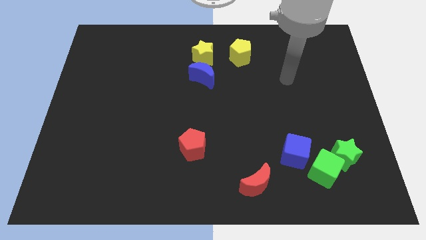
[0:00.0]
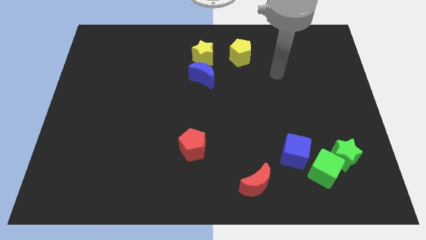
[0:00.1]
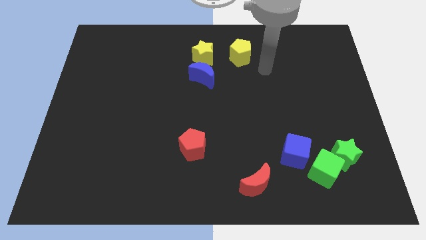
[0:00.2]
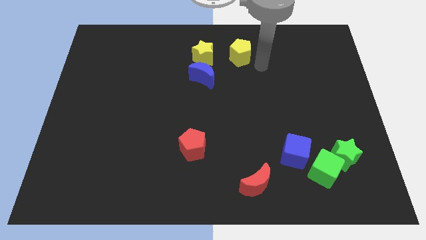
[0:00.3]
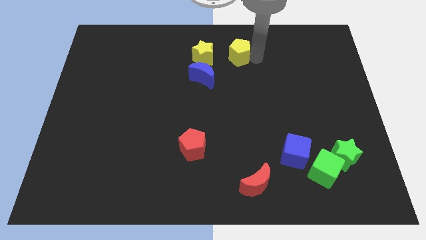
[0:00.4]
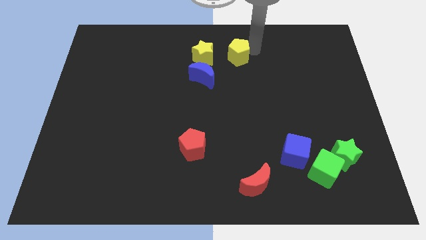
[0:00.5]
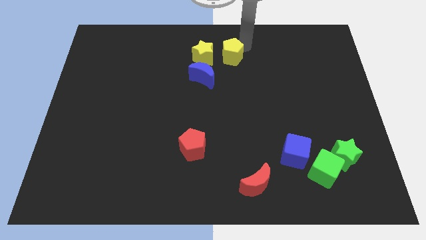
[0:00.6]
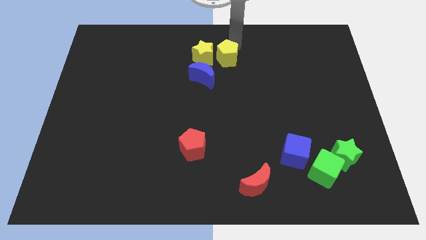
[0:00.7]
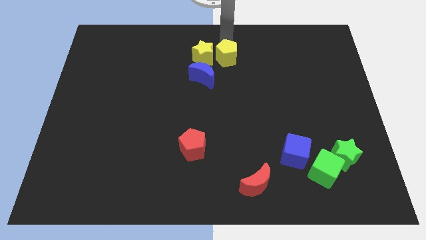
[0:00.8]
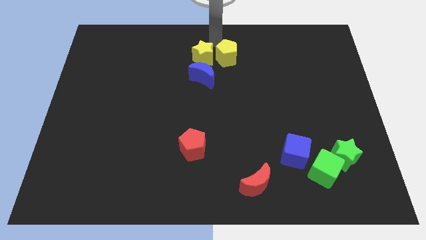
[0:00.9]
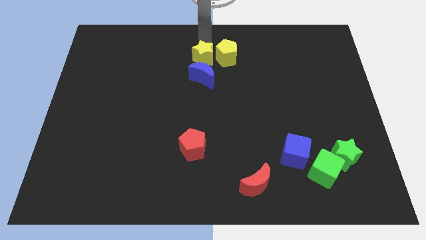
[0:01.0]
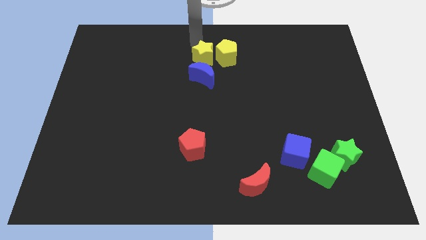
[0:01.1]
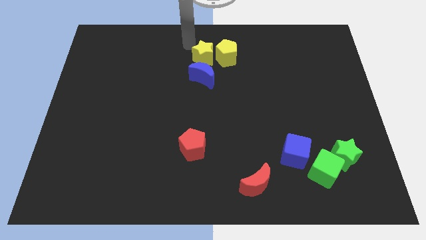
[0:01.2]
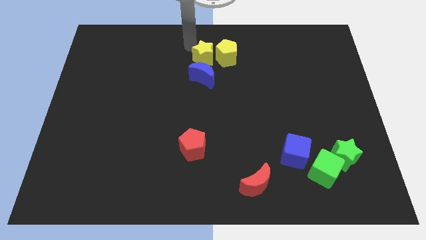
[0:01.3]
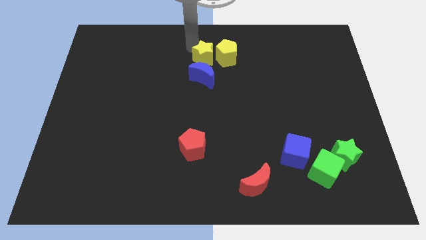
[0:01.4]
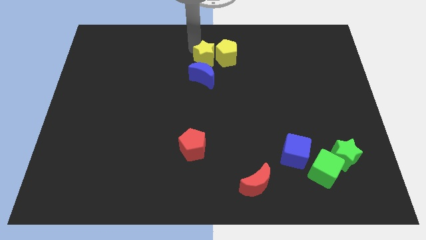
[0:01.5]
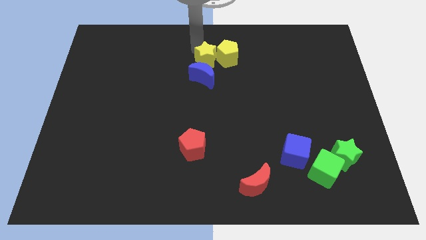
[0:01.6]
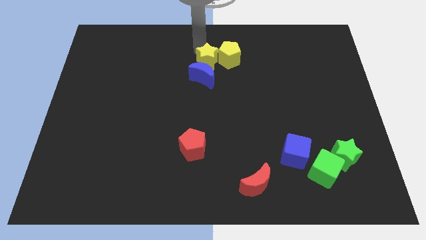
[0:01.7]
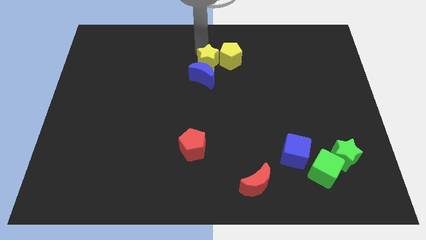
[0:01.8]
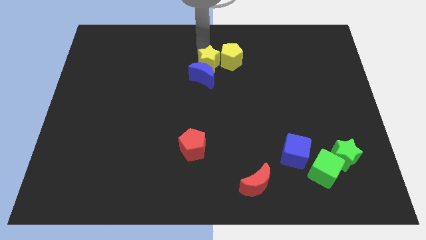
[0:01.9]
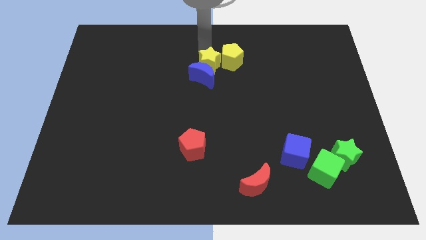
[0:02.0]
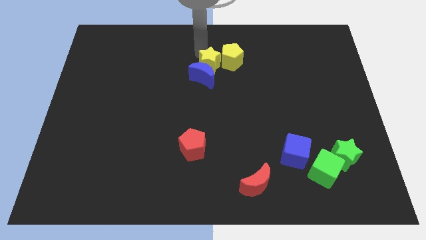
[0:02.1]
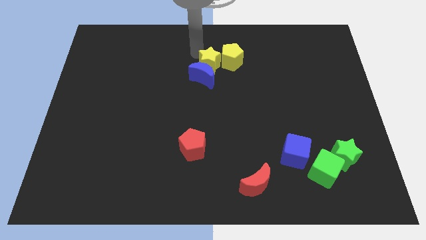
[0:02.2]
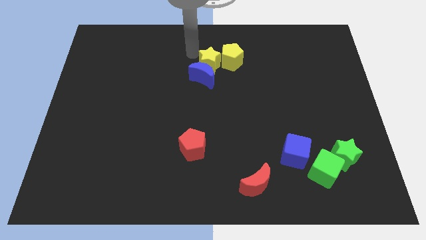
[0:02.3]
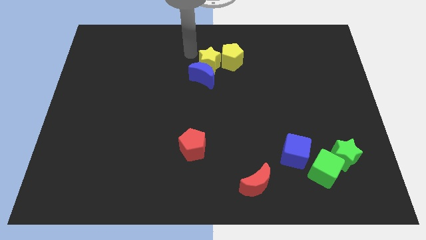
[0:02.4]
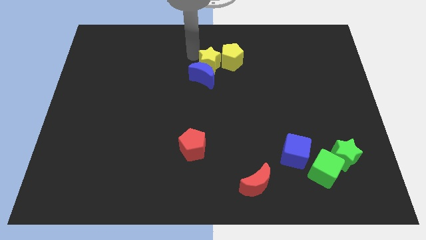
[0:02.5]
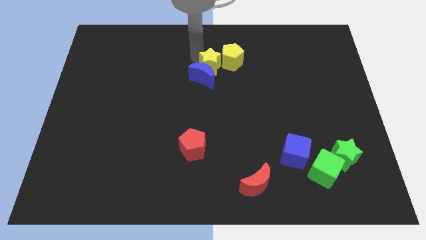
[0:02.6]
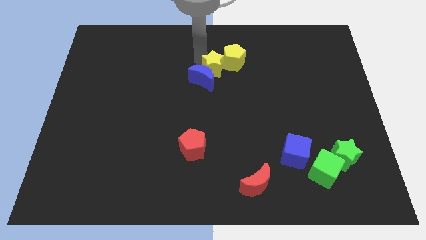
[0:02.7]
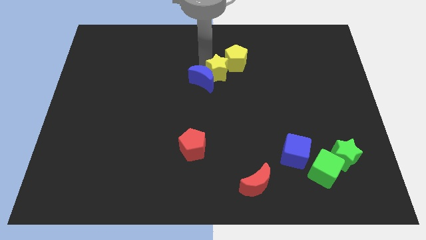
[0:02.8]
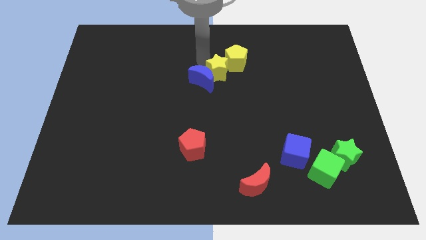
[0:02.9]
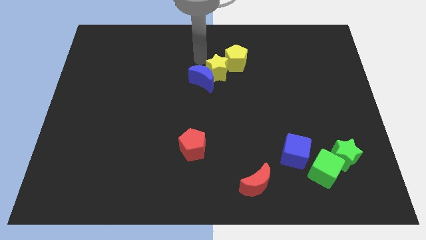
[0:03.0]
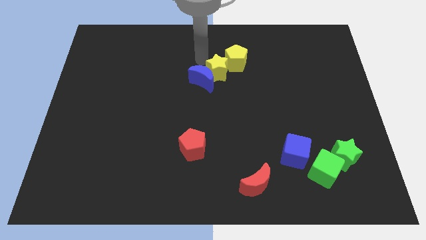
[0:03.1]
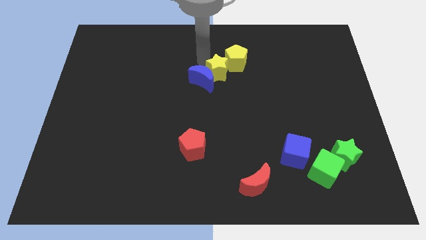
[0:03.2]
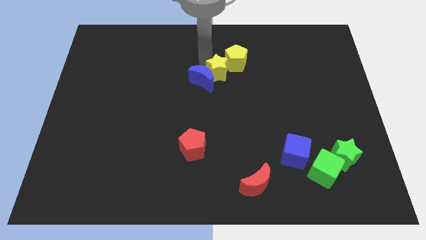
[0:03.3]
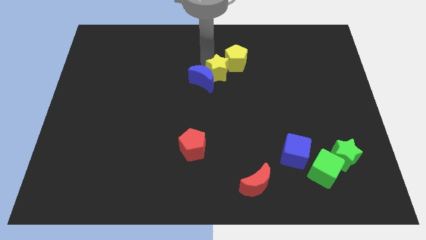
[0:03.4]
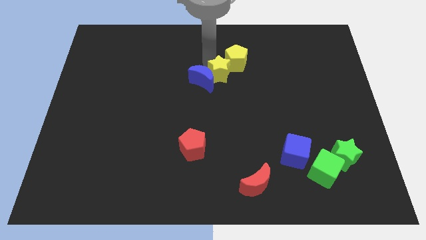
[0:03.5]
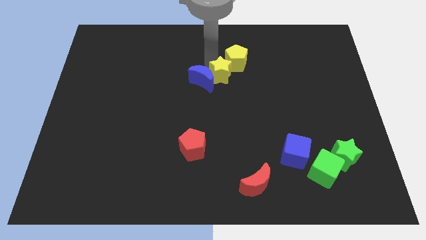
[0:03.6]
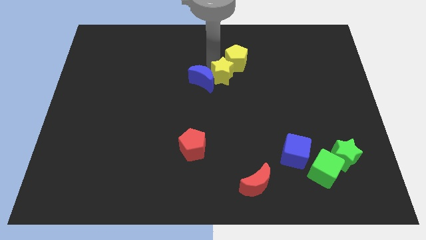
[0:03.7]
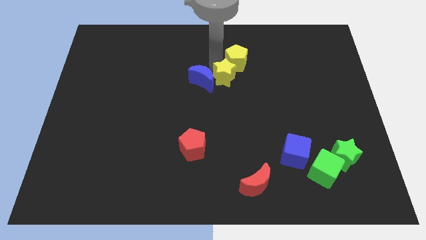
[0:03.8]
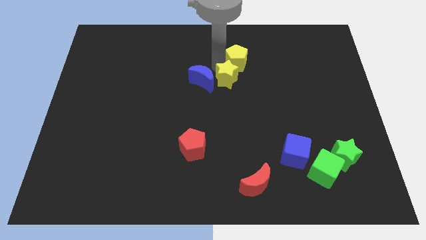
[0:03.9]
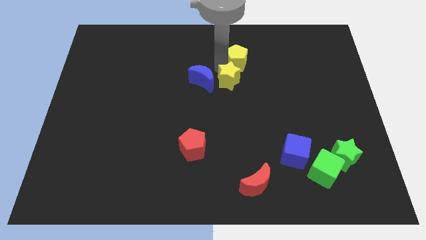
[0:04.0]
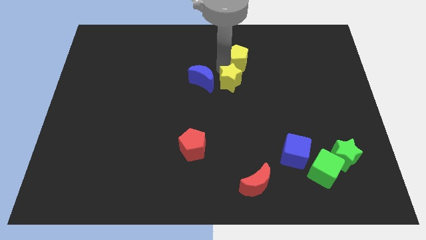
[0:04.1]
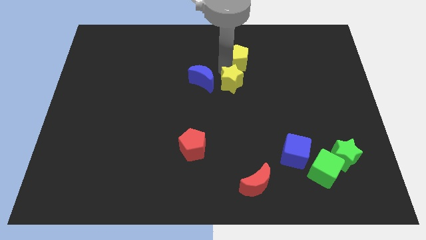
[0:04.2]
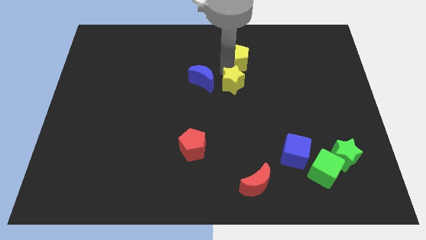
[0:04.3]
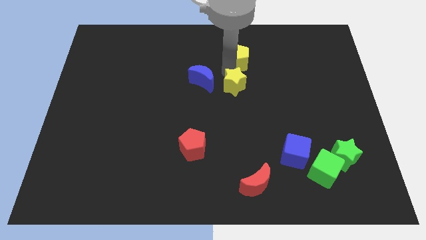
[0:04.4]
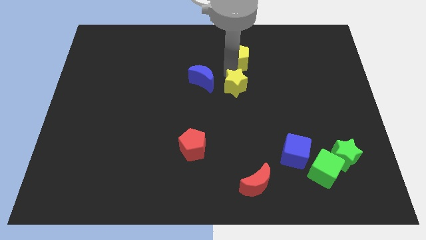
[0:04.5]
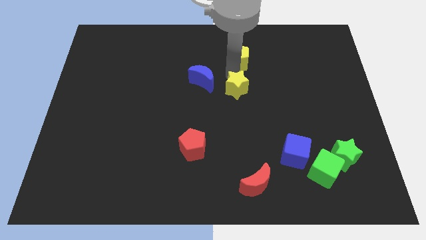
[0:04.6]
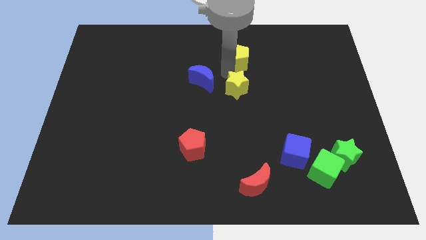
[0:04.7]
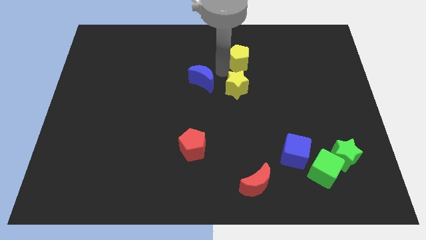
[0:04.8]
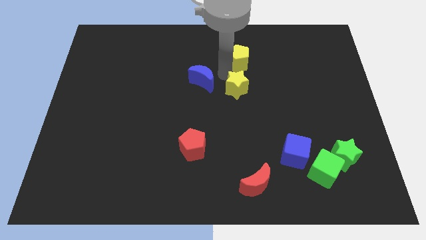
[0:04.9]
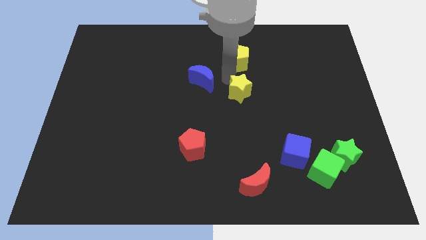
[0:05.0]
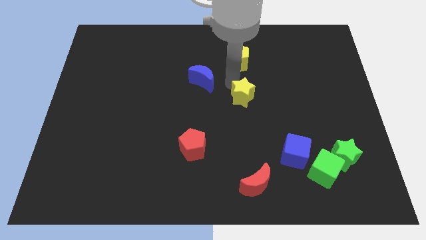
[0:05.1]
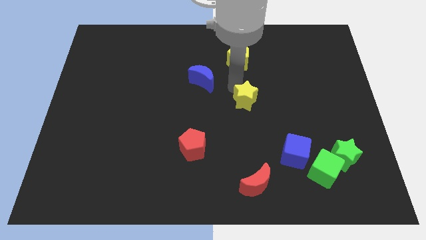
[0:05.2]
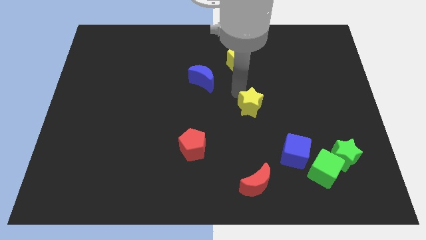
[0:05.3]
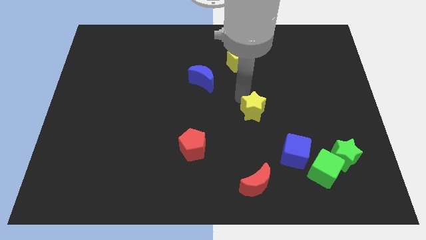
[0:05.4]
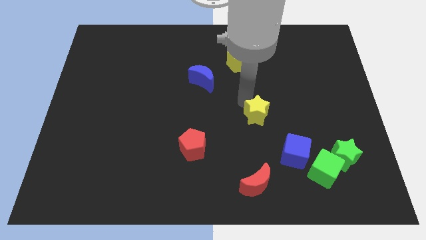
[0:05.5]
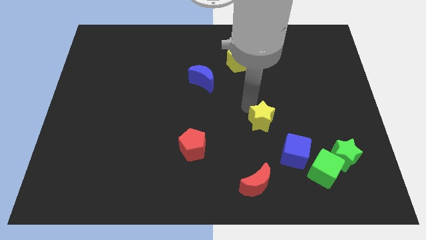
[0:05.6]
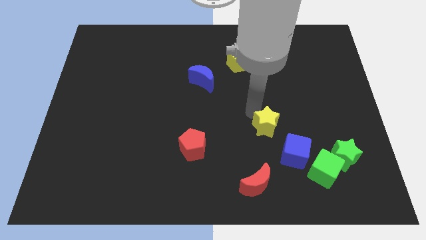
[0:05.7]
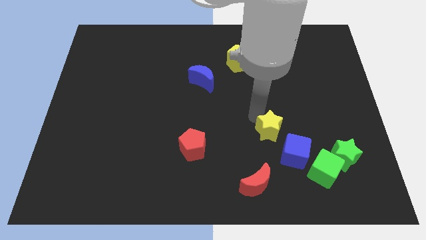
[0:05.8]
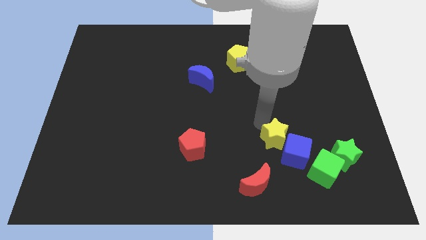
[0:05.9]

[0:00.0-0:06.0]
slide the yellow star close to the blue cube
